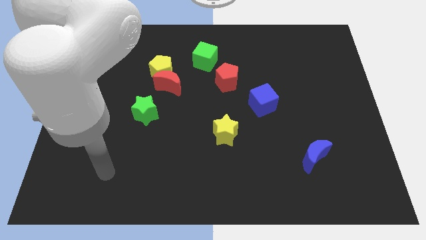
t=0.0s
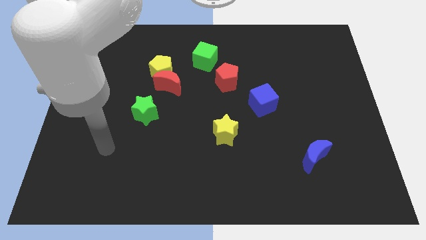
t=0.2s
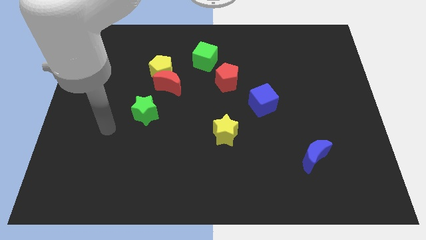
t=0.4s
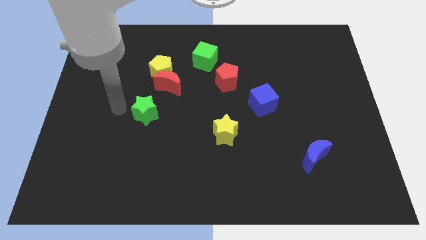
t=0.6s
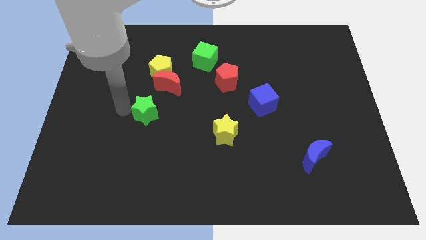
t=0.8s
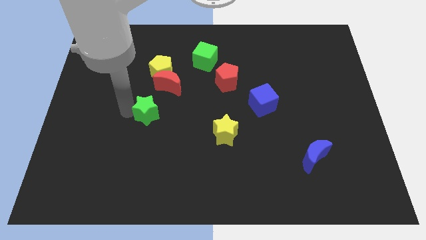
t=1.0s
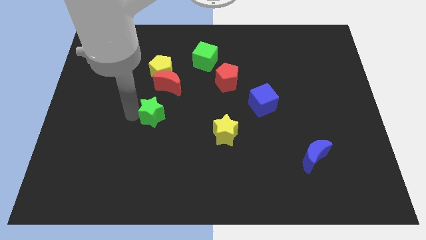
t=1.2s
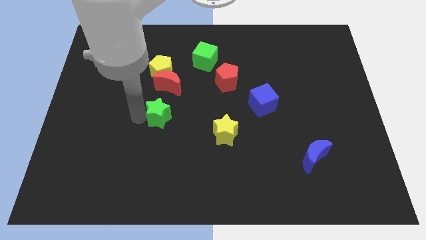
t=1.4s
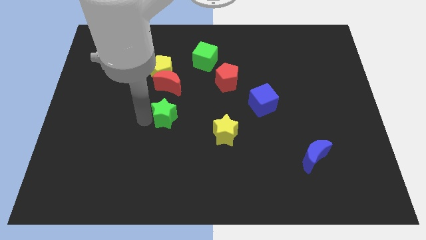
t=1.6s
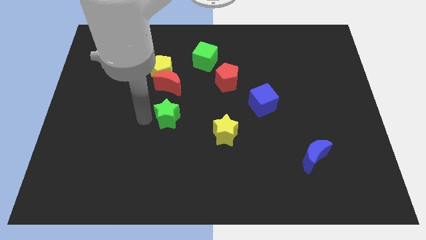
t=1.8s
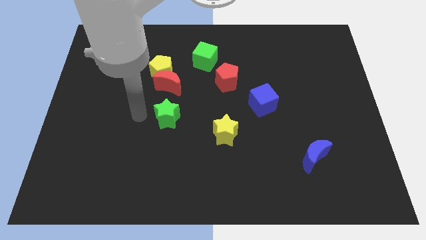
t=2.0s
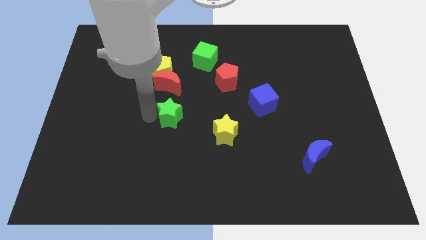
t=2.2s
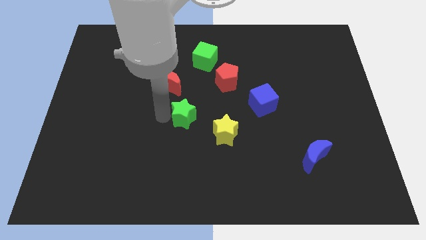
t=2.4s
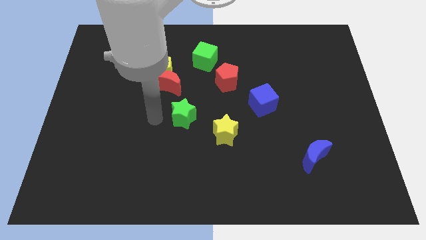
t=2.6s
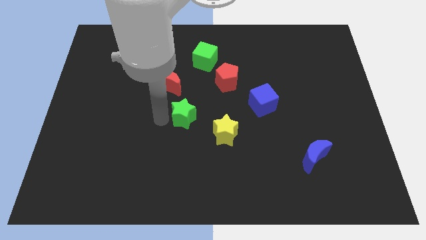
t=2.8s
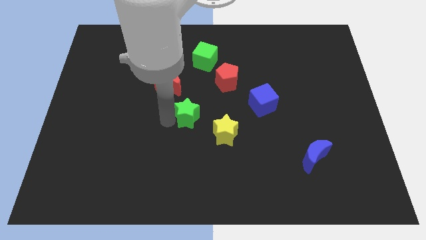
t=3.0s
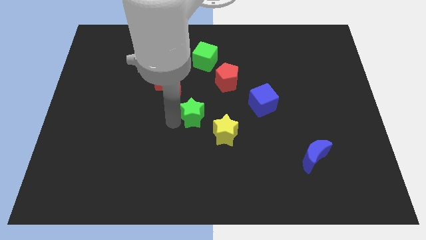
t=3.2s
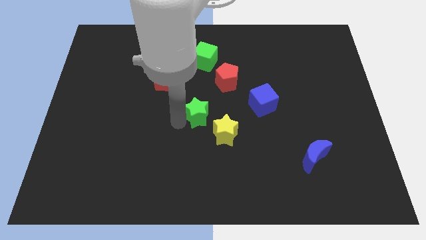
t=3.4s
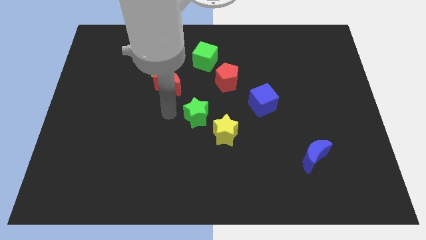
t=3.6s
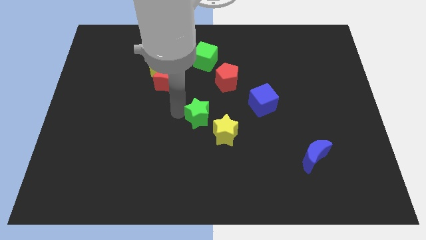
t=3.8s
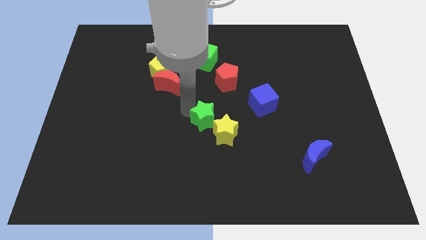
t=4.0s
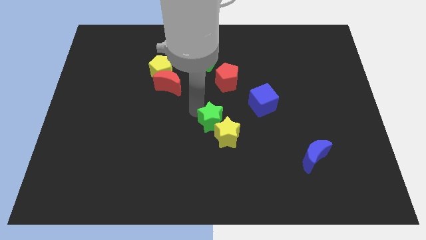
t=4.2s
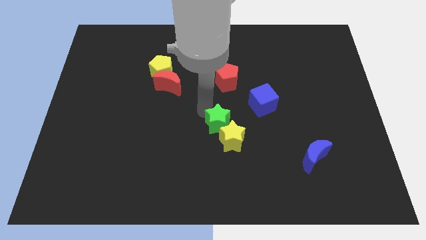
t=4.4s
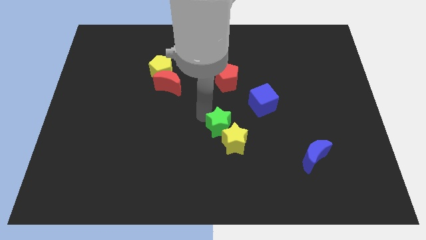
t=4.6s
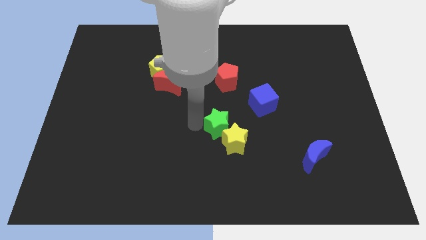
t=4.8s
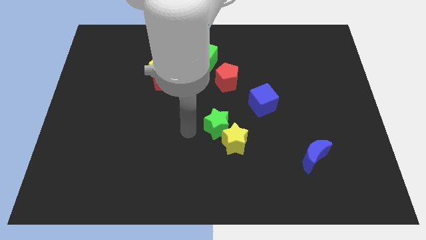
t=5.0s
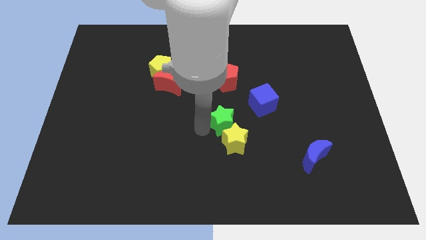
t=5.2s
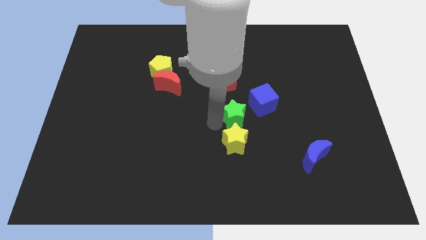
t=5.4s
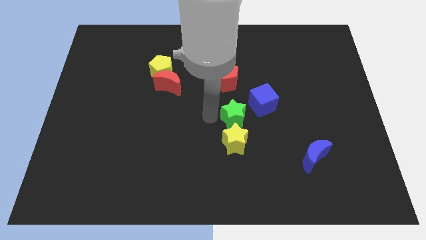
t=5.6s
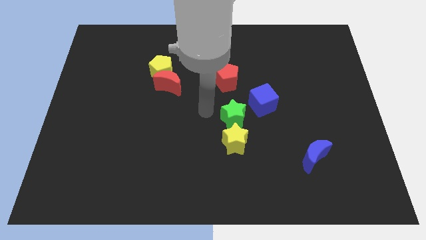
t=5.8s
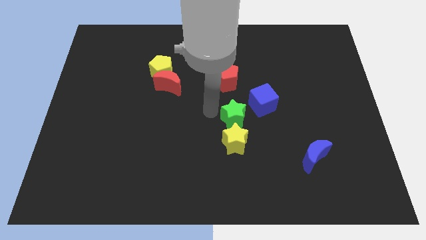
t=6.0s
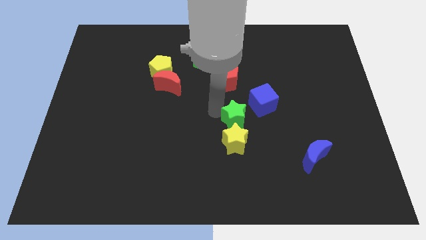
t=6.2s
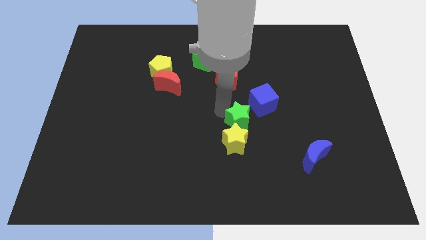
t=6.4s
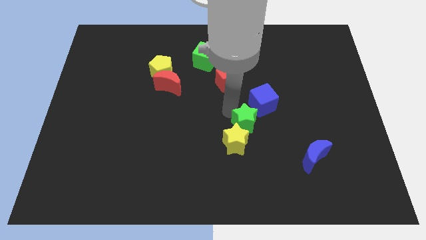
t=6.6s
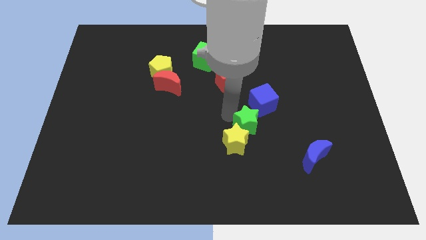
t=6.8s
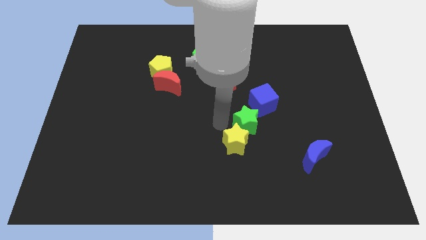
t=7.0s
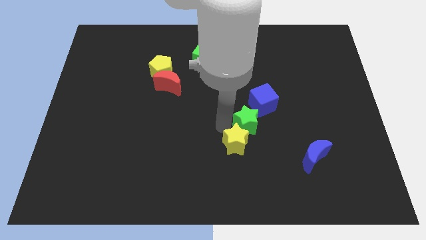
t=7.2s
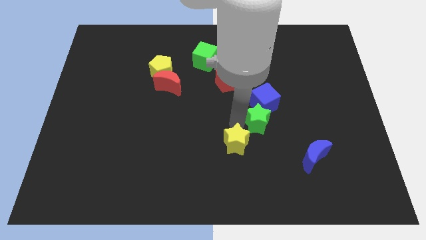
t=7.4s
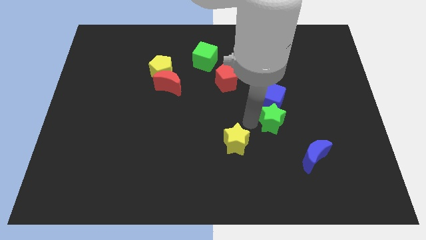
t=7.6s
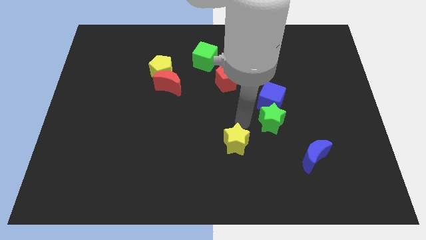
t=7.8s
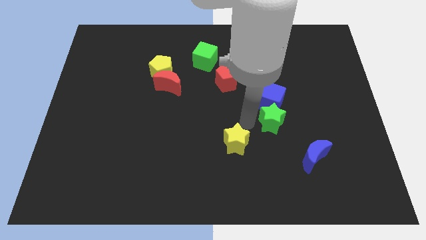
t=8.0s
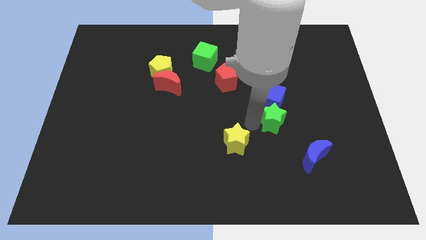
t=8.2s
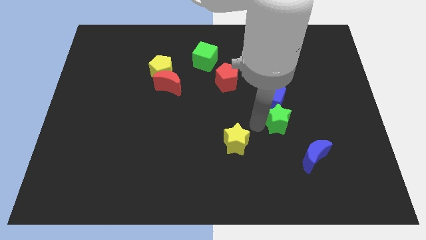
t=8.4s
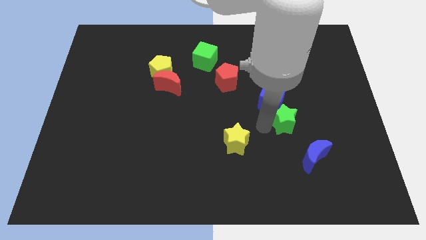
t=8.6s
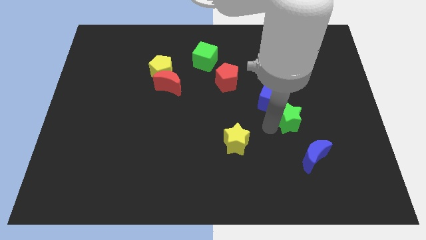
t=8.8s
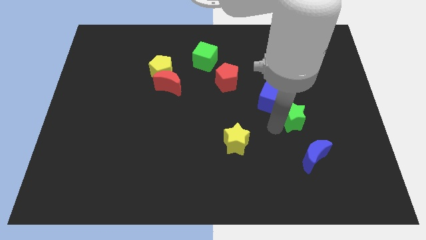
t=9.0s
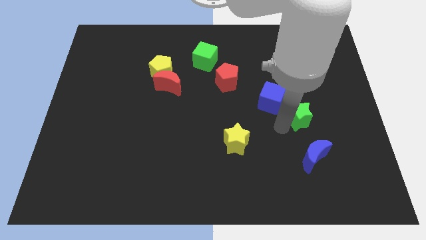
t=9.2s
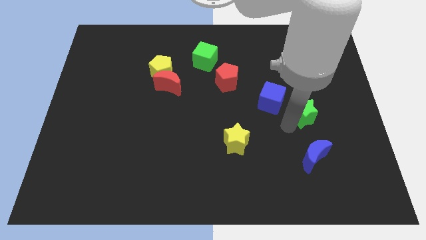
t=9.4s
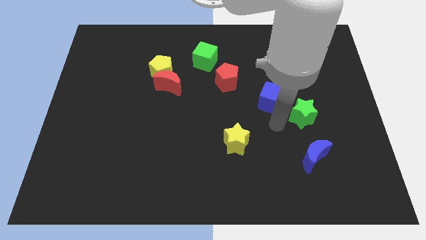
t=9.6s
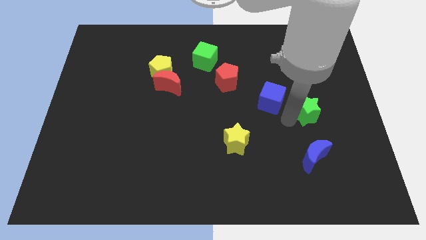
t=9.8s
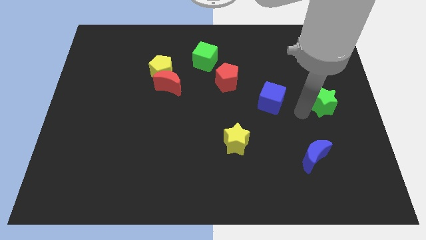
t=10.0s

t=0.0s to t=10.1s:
put the green star to the right side

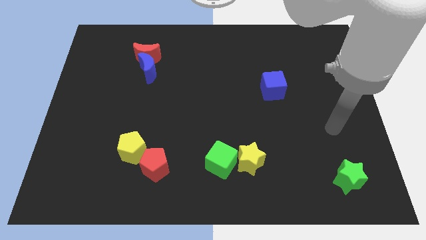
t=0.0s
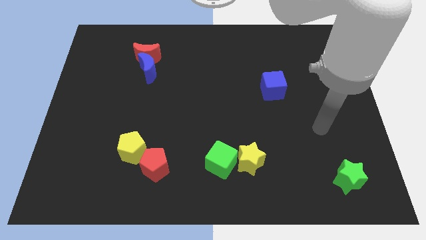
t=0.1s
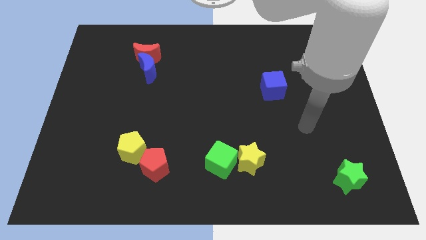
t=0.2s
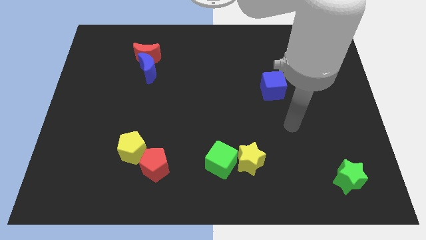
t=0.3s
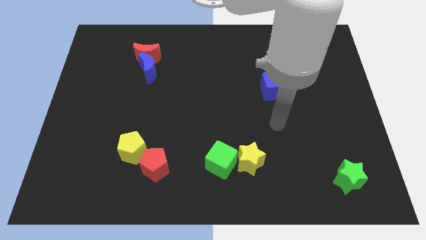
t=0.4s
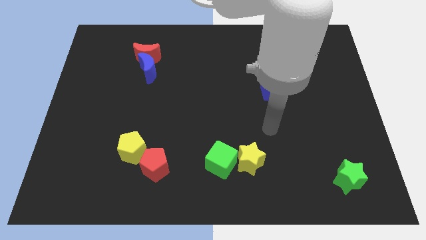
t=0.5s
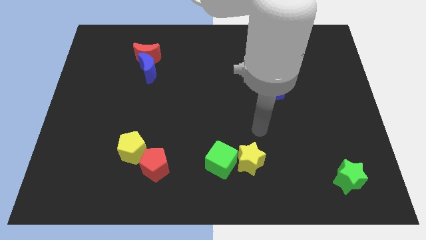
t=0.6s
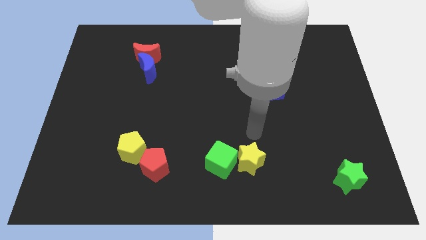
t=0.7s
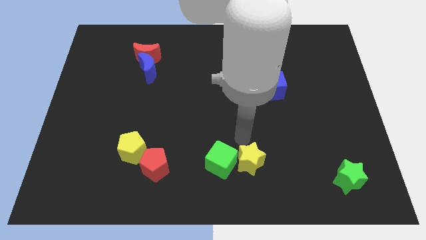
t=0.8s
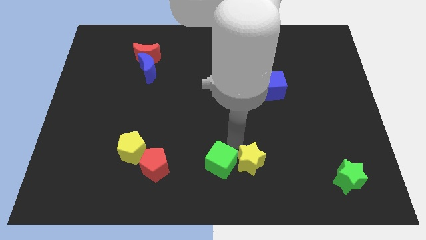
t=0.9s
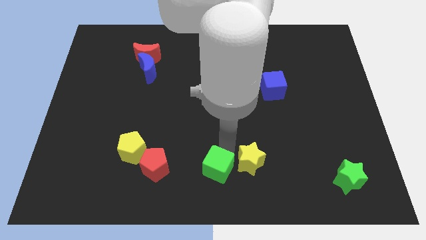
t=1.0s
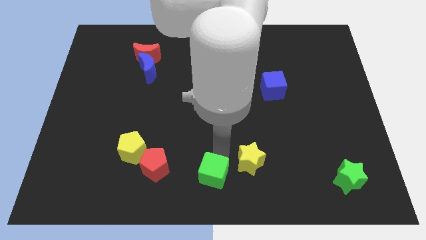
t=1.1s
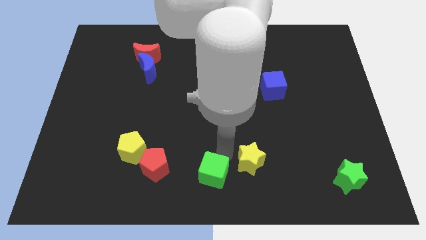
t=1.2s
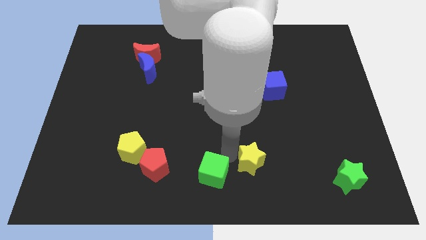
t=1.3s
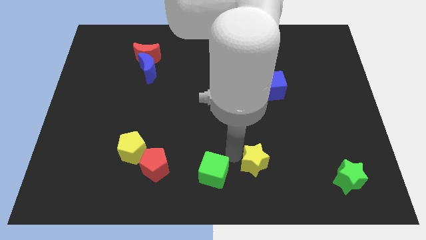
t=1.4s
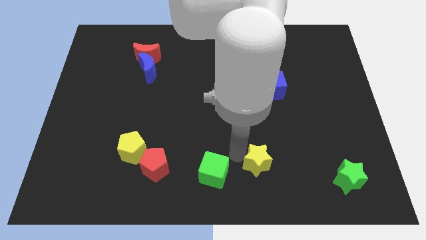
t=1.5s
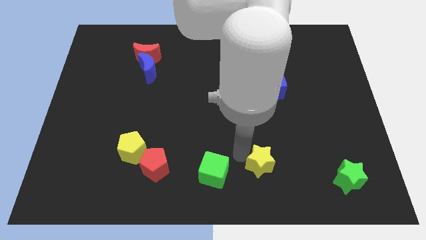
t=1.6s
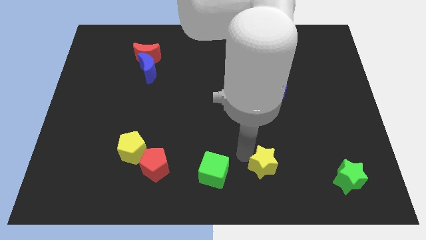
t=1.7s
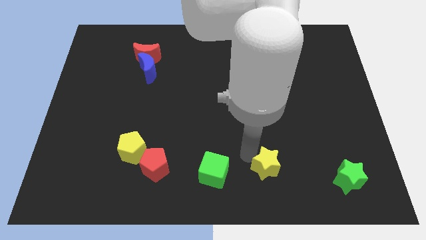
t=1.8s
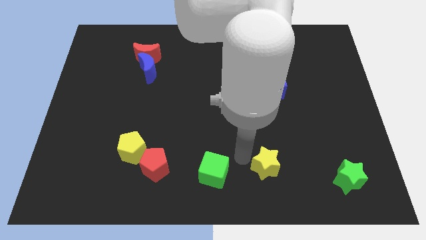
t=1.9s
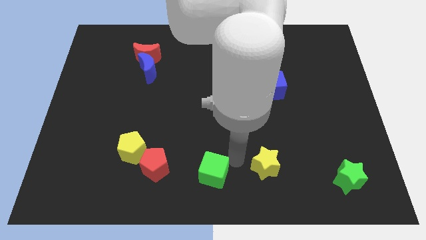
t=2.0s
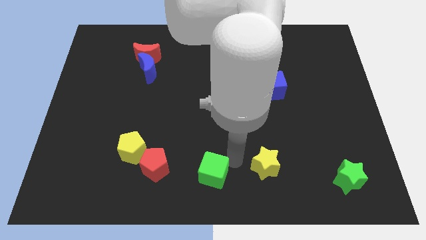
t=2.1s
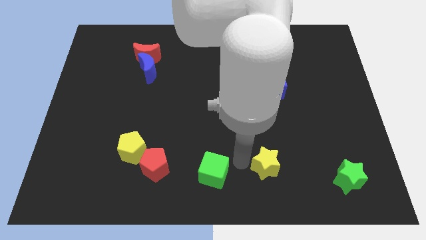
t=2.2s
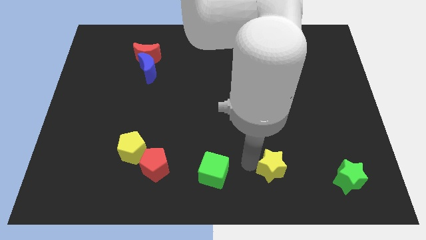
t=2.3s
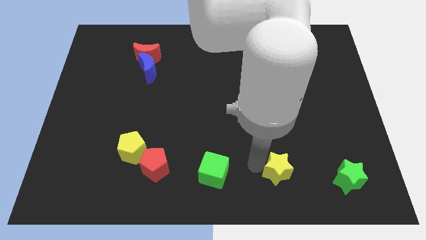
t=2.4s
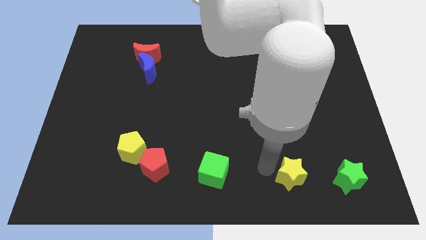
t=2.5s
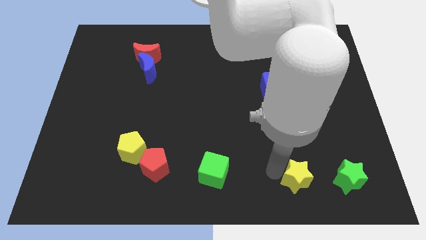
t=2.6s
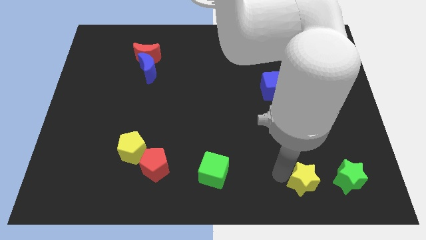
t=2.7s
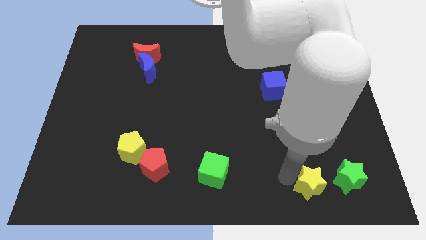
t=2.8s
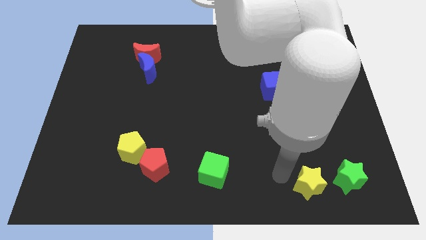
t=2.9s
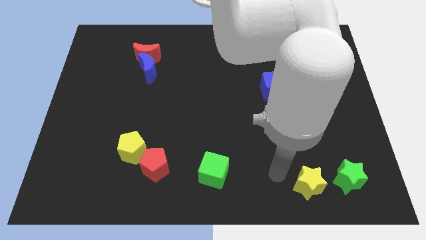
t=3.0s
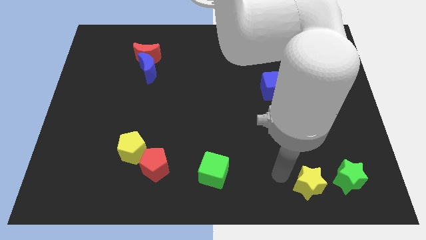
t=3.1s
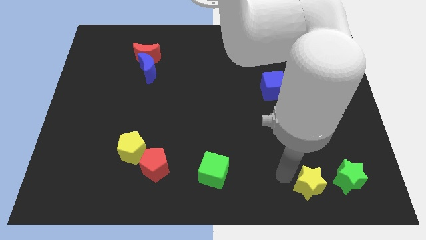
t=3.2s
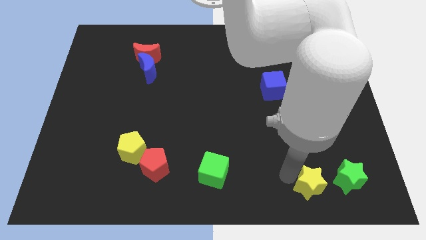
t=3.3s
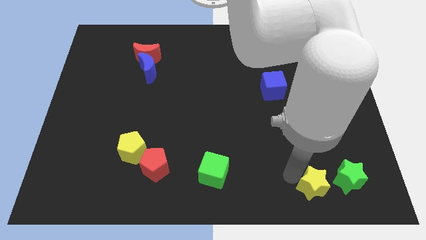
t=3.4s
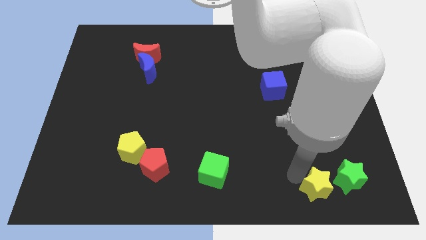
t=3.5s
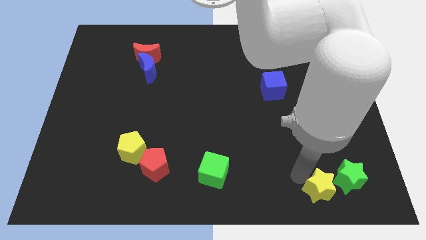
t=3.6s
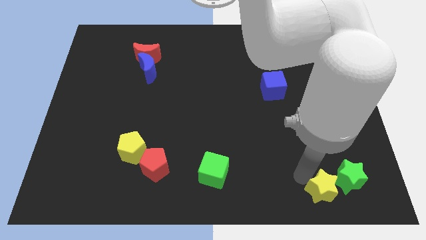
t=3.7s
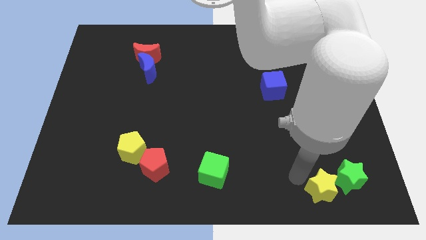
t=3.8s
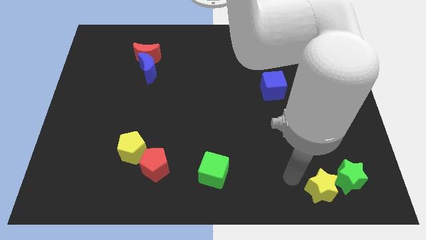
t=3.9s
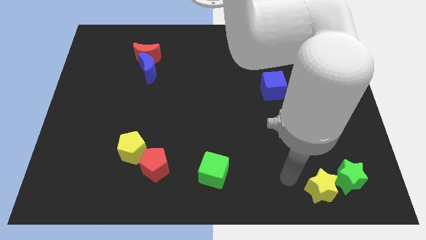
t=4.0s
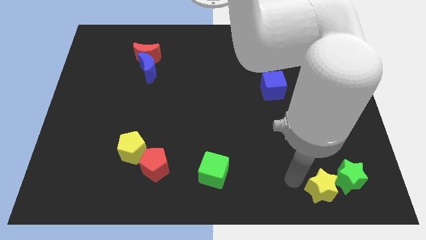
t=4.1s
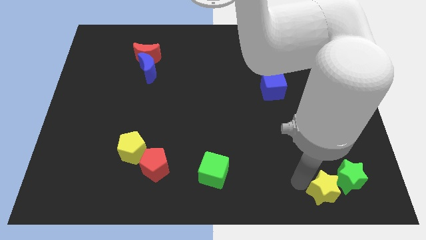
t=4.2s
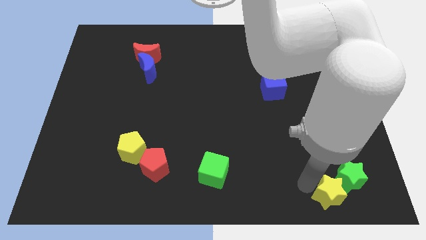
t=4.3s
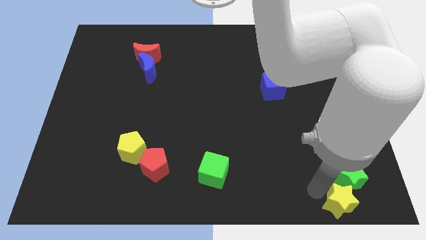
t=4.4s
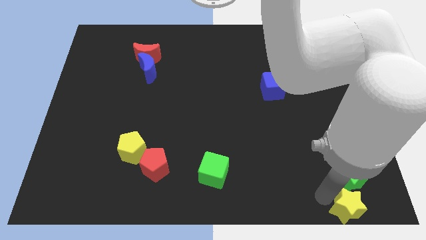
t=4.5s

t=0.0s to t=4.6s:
slide the yellow star to the bottom right
